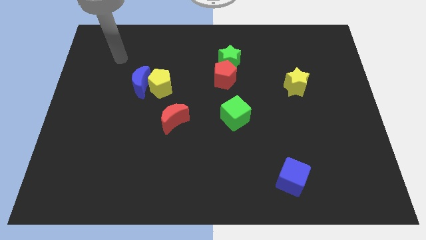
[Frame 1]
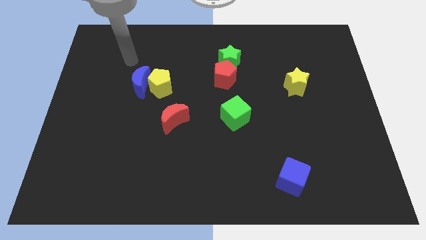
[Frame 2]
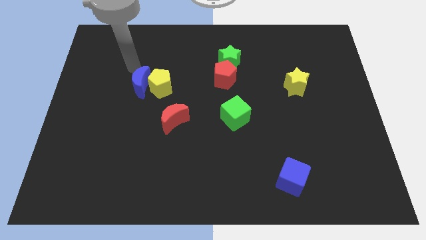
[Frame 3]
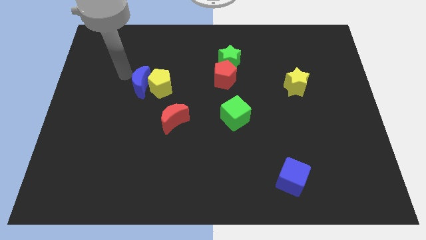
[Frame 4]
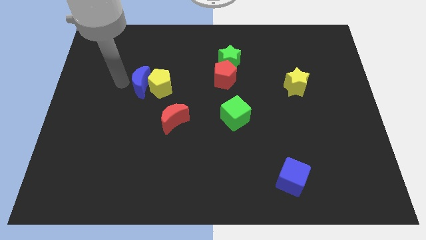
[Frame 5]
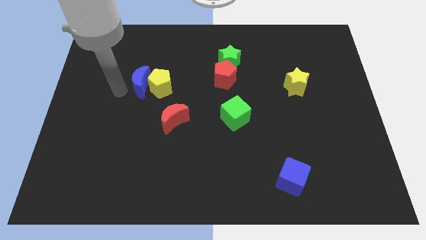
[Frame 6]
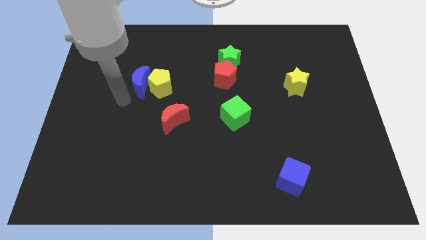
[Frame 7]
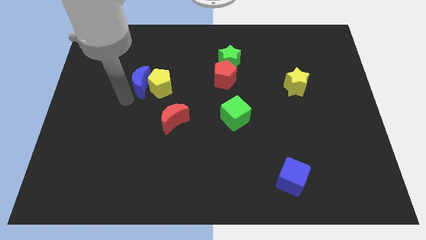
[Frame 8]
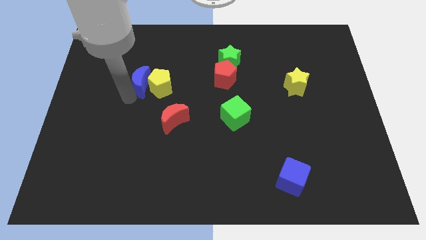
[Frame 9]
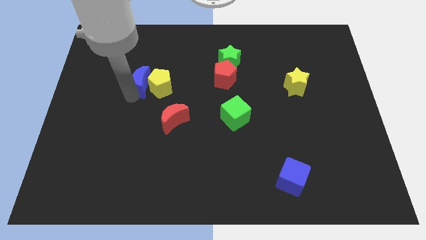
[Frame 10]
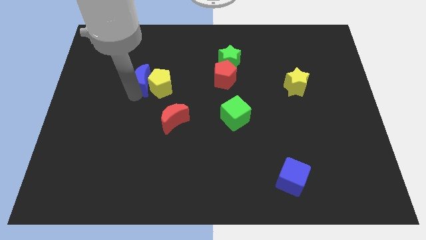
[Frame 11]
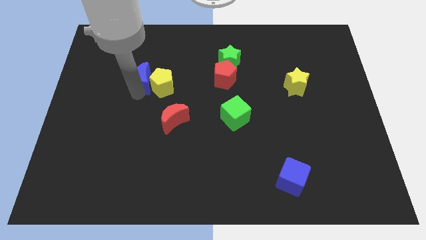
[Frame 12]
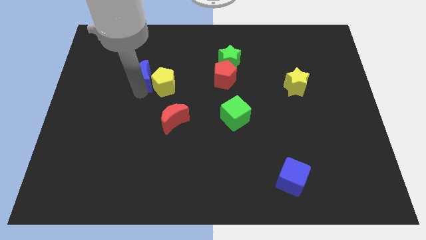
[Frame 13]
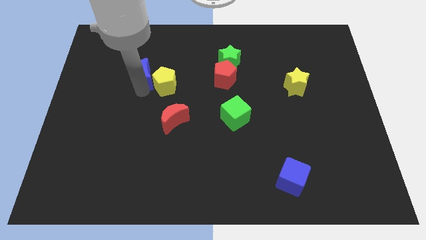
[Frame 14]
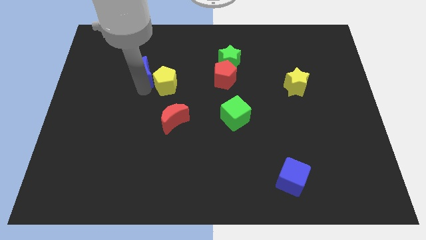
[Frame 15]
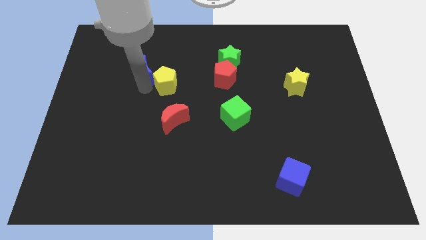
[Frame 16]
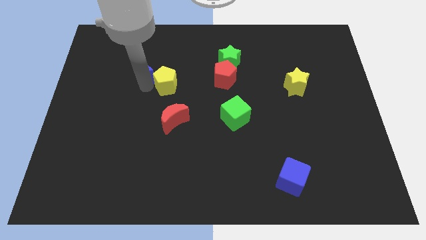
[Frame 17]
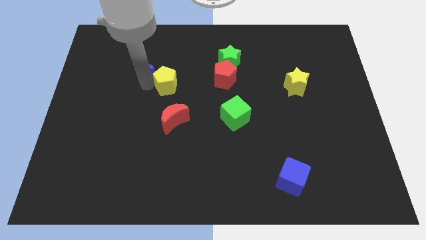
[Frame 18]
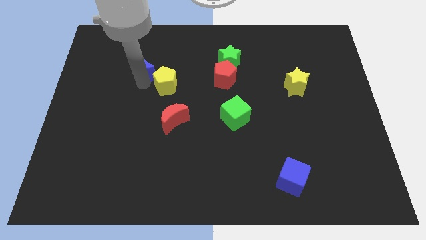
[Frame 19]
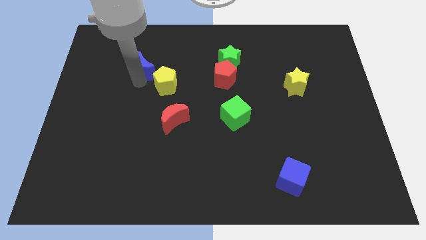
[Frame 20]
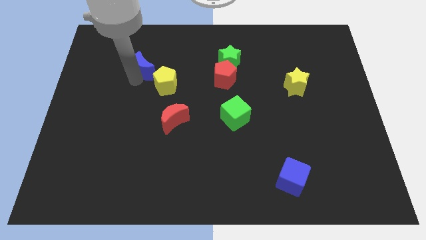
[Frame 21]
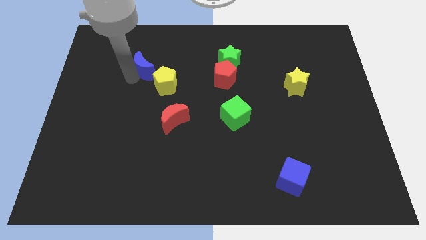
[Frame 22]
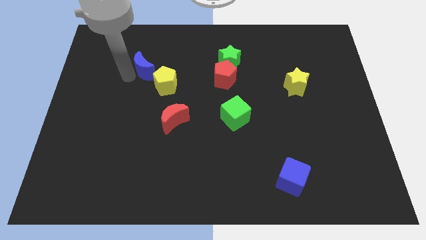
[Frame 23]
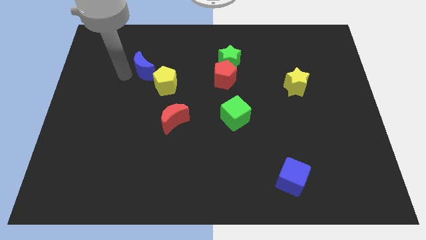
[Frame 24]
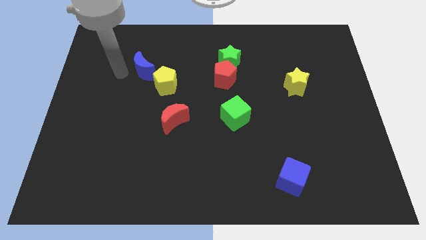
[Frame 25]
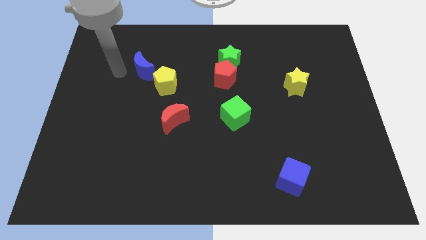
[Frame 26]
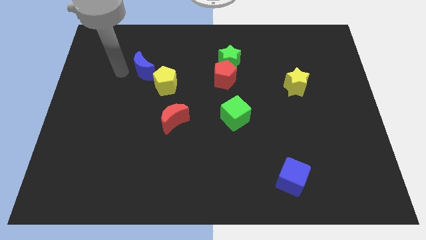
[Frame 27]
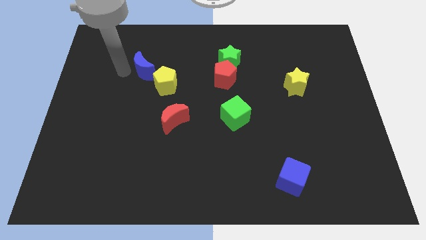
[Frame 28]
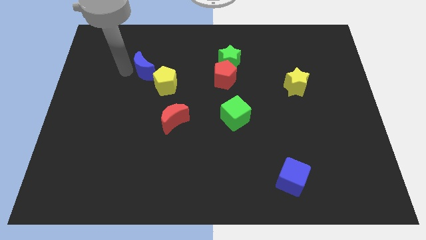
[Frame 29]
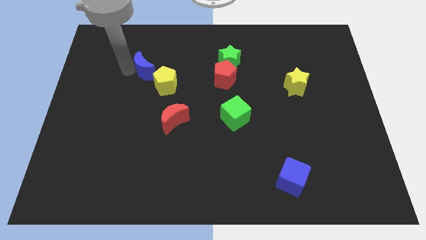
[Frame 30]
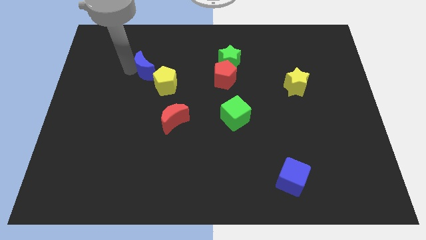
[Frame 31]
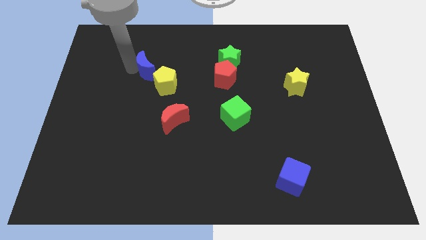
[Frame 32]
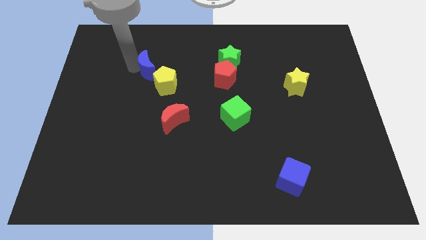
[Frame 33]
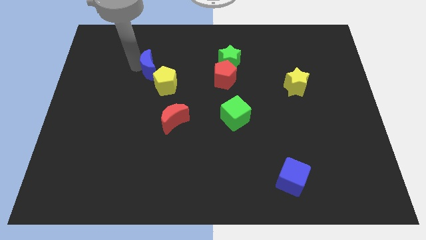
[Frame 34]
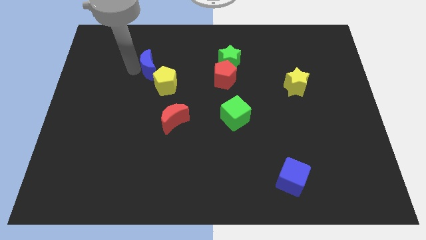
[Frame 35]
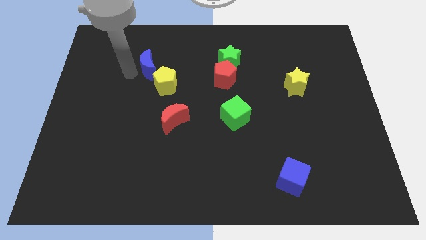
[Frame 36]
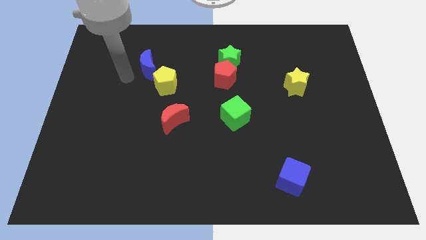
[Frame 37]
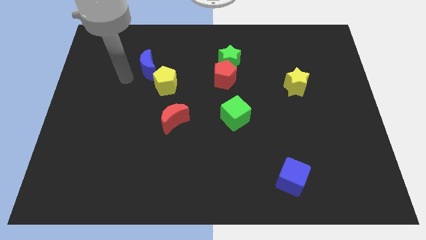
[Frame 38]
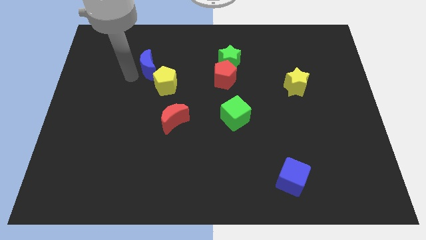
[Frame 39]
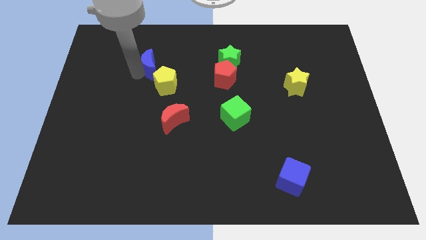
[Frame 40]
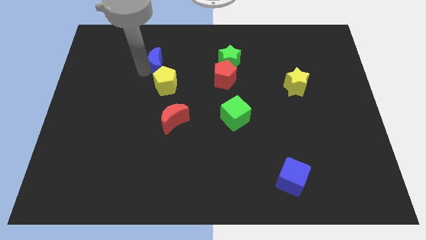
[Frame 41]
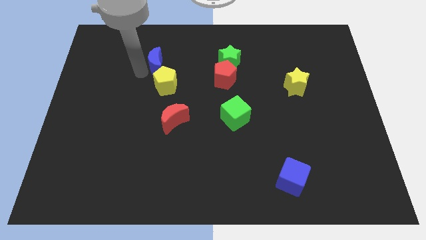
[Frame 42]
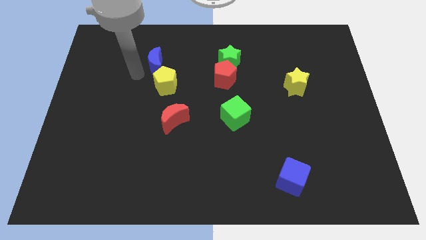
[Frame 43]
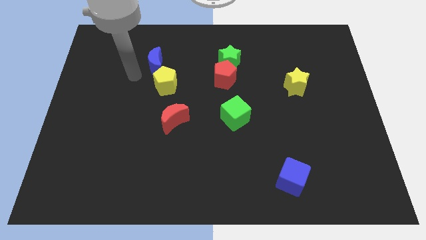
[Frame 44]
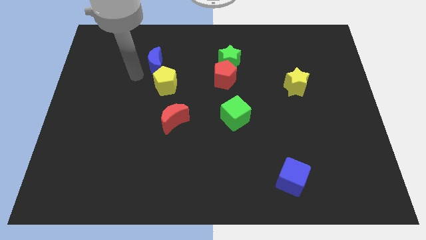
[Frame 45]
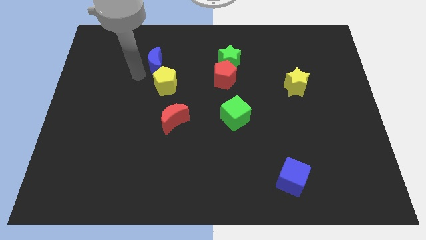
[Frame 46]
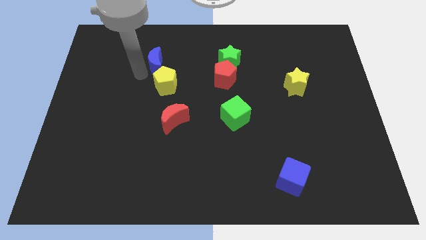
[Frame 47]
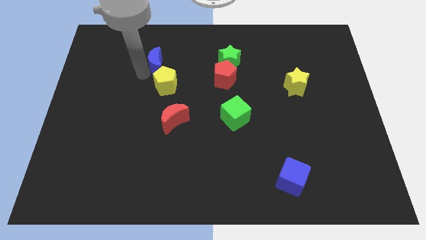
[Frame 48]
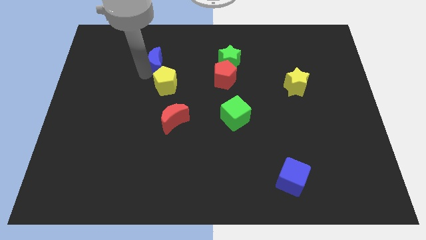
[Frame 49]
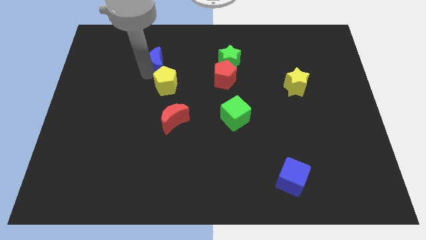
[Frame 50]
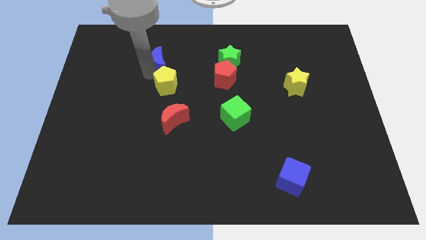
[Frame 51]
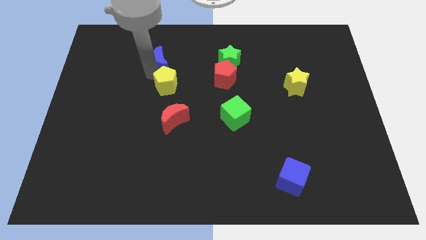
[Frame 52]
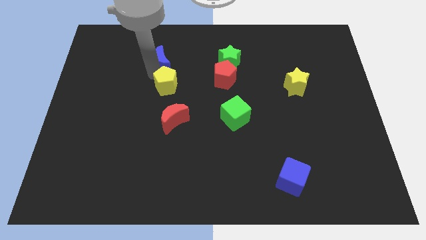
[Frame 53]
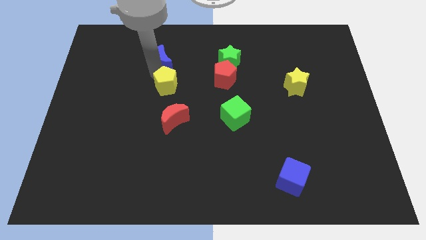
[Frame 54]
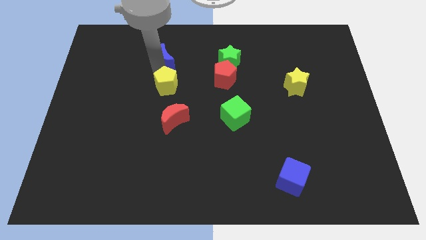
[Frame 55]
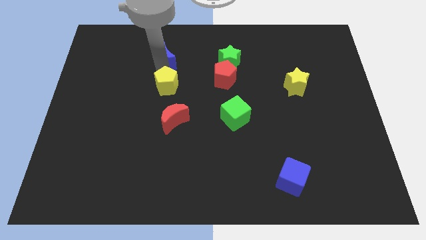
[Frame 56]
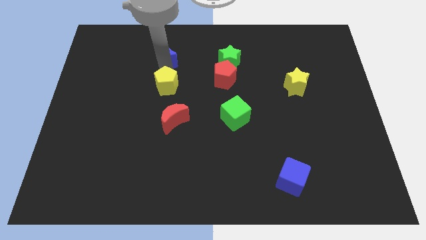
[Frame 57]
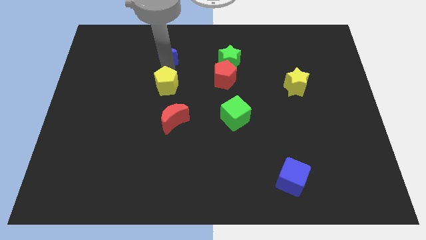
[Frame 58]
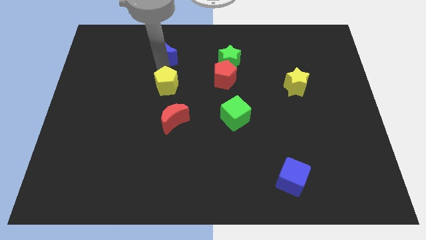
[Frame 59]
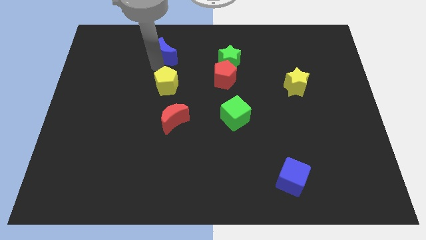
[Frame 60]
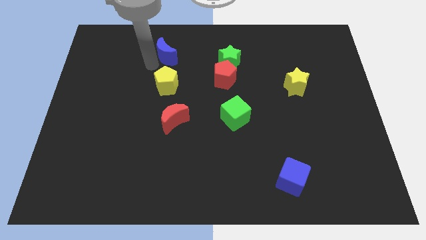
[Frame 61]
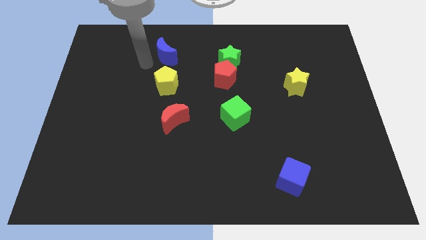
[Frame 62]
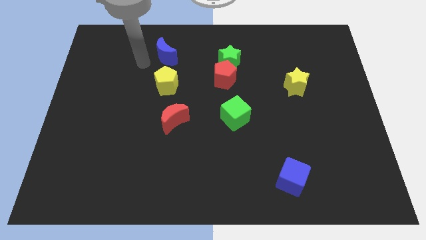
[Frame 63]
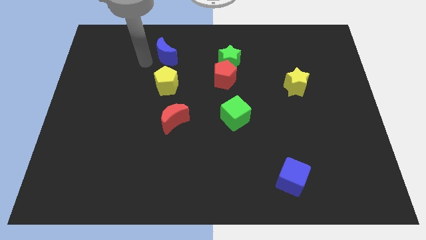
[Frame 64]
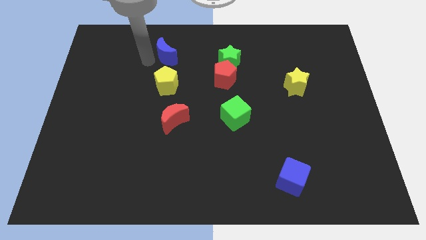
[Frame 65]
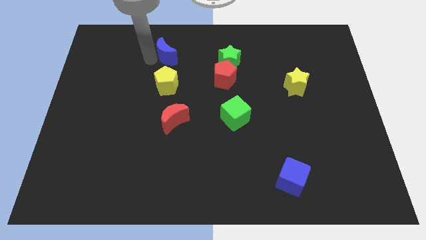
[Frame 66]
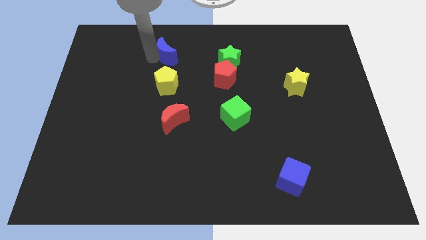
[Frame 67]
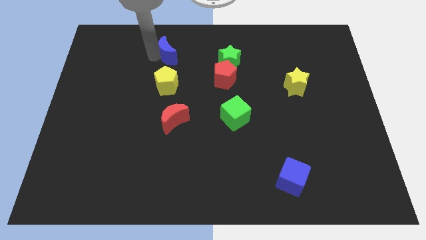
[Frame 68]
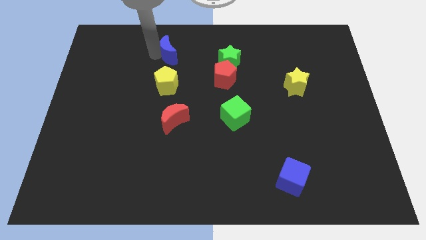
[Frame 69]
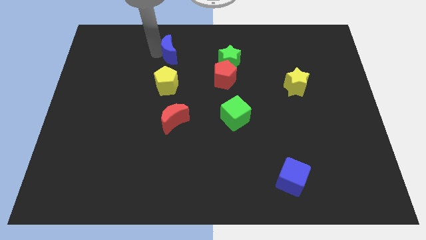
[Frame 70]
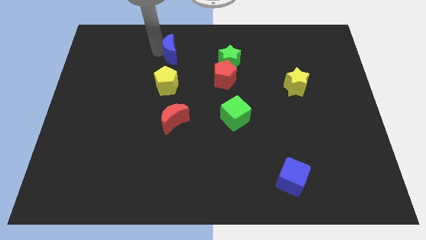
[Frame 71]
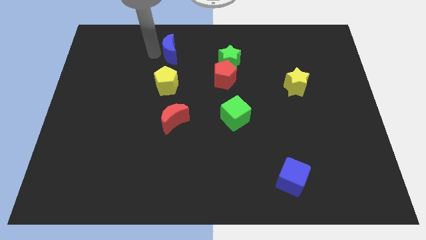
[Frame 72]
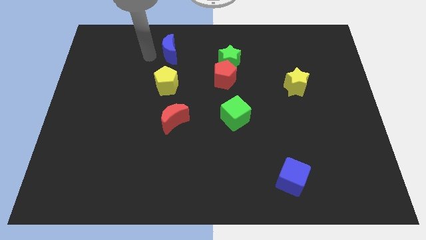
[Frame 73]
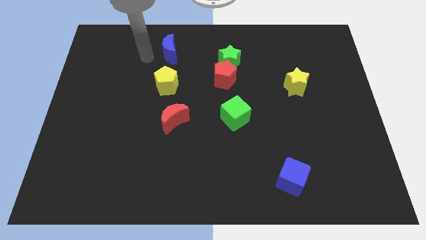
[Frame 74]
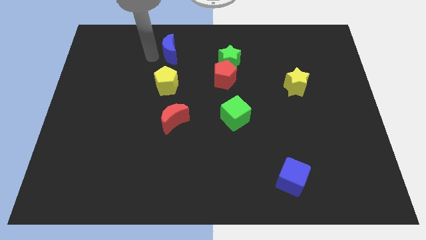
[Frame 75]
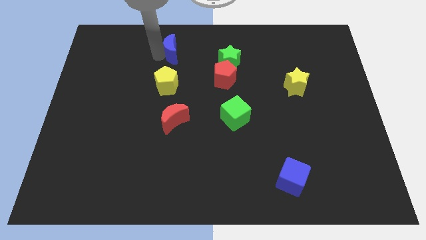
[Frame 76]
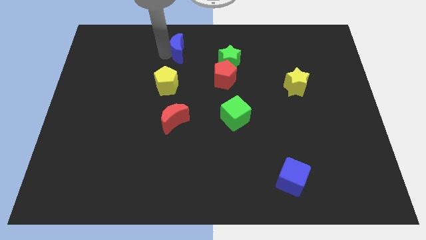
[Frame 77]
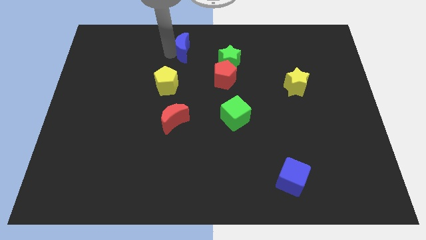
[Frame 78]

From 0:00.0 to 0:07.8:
move the blue moon to the top
